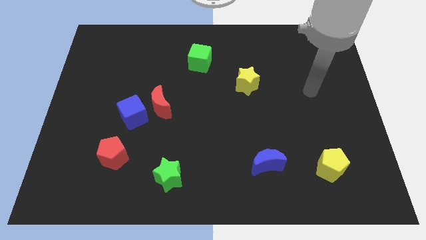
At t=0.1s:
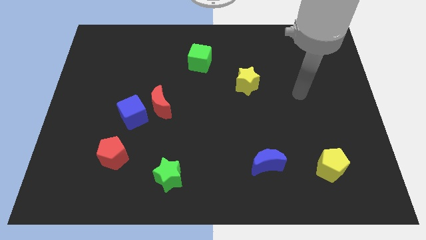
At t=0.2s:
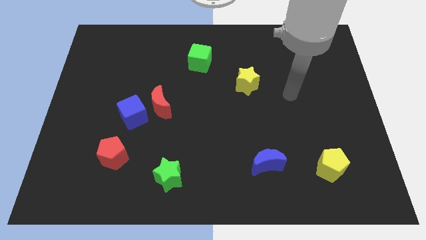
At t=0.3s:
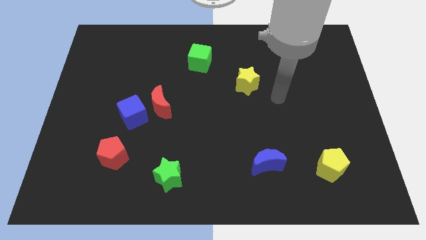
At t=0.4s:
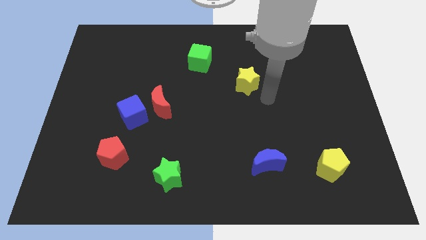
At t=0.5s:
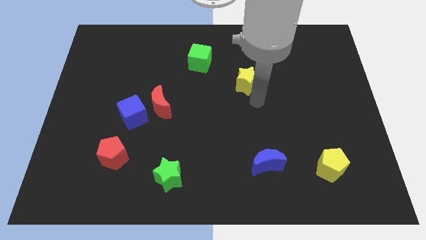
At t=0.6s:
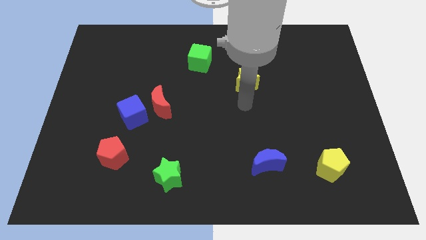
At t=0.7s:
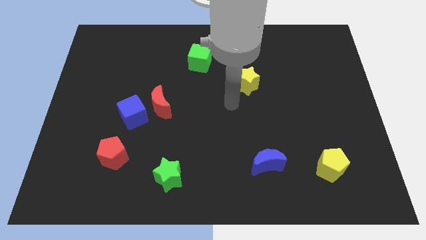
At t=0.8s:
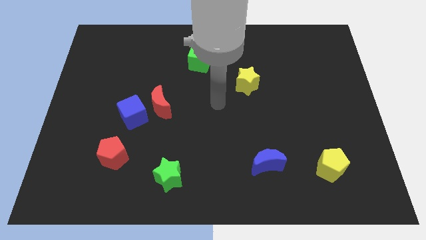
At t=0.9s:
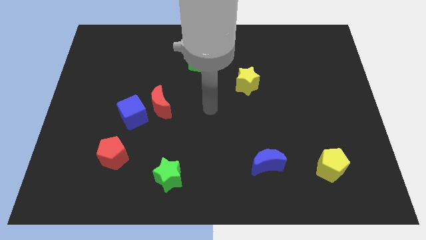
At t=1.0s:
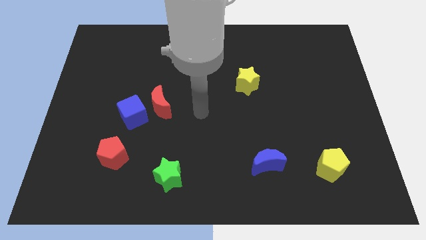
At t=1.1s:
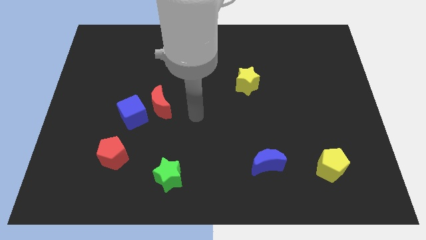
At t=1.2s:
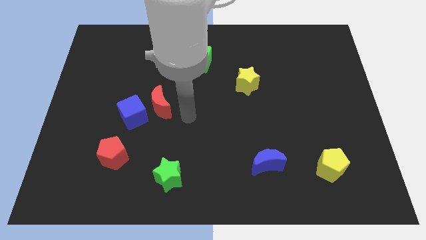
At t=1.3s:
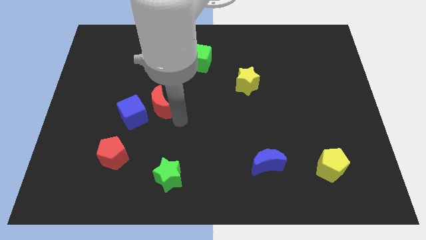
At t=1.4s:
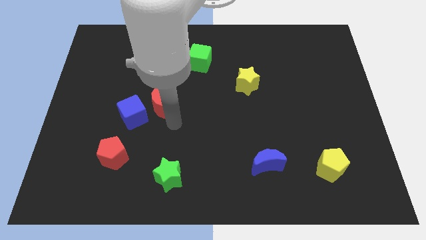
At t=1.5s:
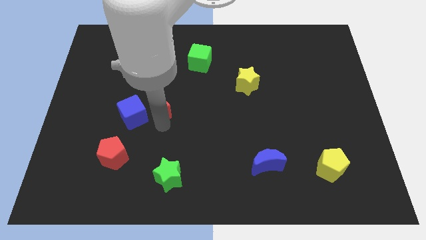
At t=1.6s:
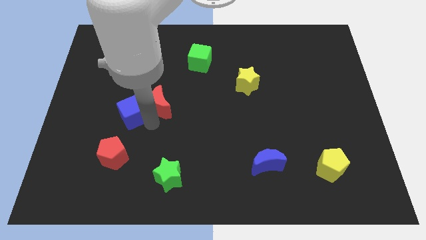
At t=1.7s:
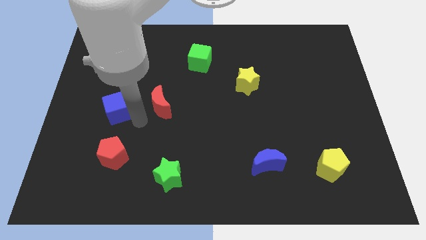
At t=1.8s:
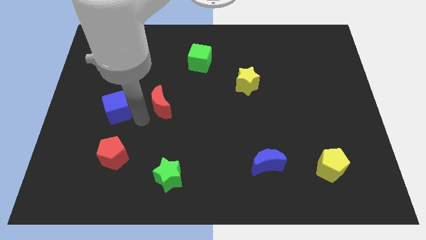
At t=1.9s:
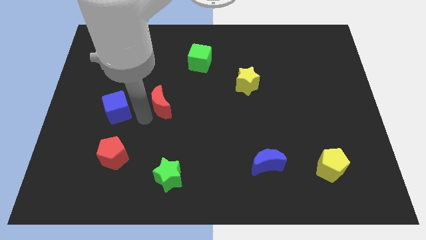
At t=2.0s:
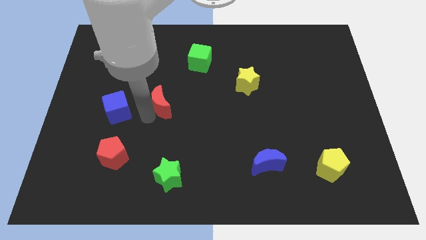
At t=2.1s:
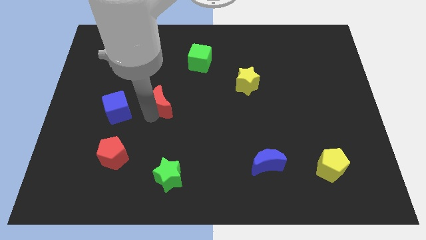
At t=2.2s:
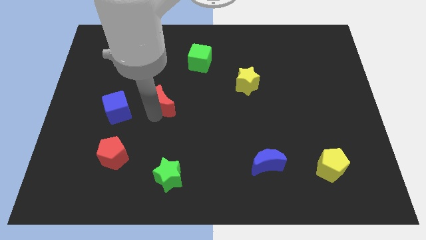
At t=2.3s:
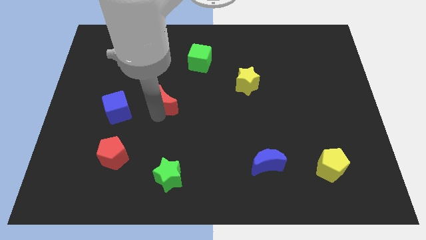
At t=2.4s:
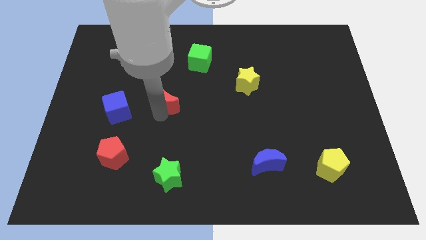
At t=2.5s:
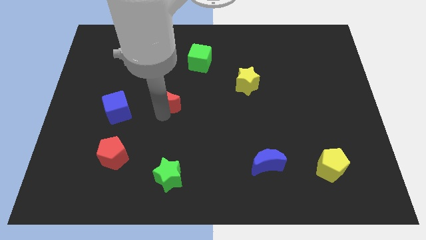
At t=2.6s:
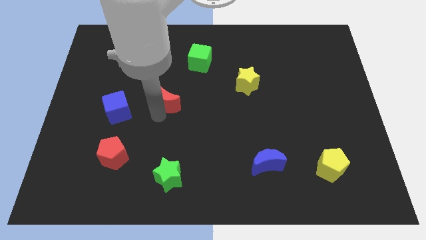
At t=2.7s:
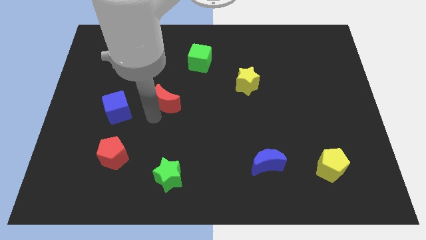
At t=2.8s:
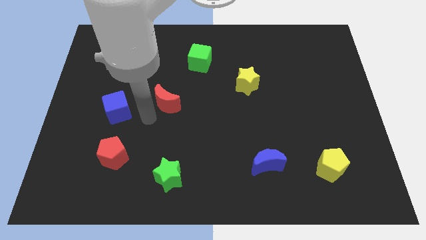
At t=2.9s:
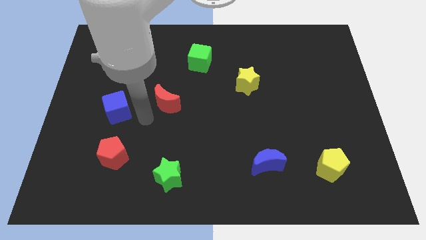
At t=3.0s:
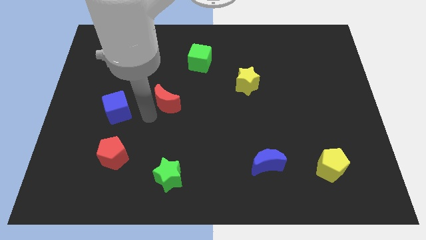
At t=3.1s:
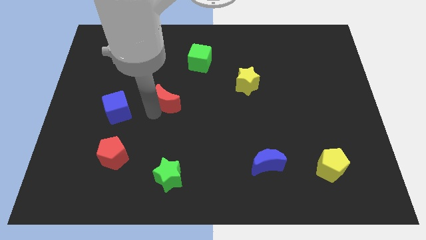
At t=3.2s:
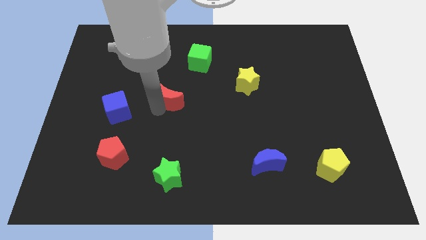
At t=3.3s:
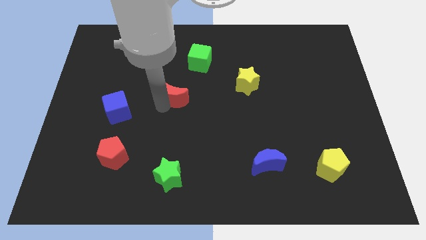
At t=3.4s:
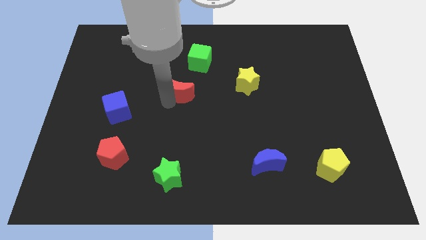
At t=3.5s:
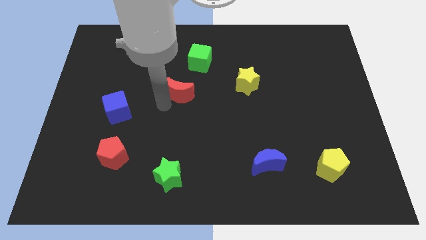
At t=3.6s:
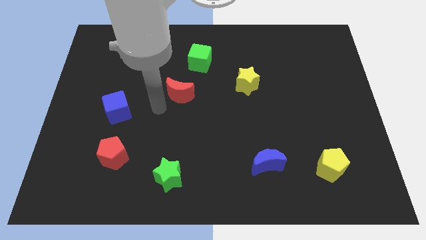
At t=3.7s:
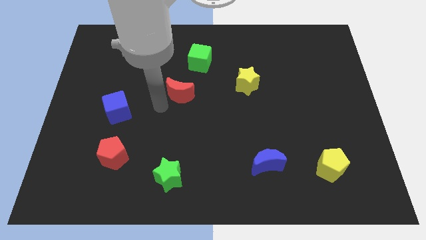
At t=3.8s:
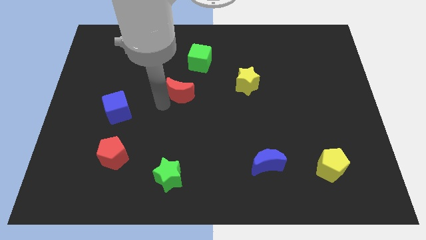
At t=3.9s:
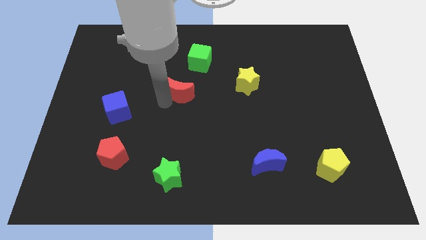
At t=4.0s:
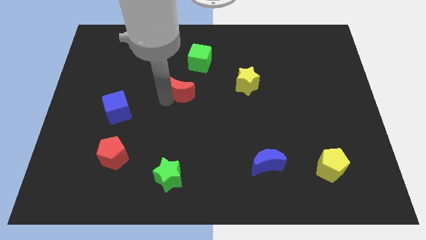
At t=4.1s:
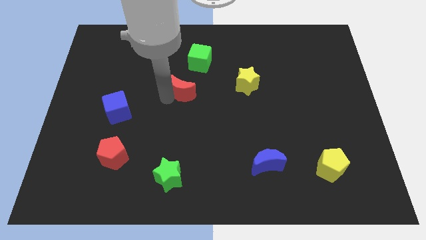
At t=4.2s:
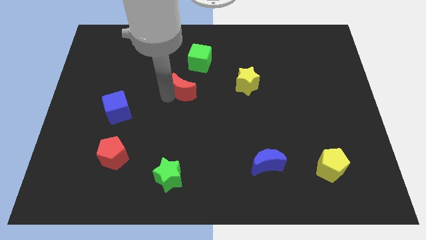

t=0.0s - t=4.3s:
slide the red moon up and then right a bit

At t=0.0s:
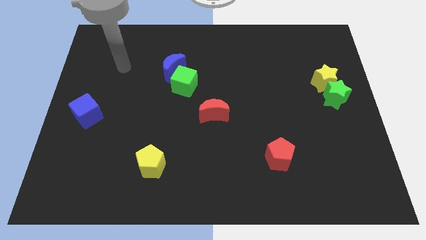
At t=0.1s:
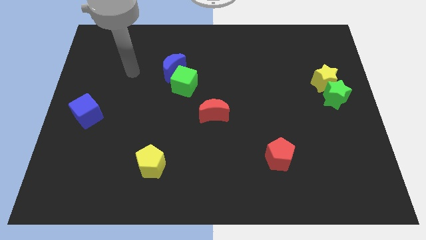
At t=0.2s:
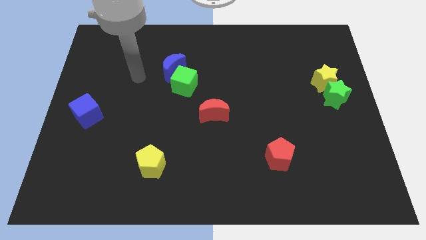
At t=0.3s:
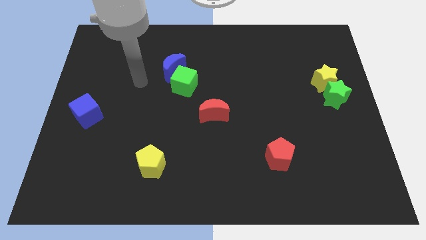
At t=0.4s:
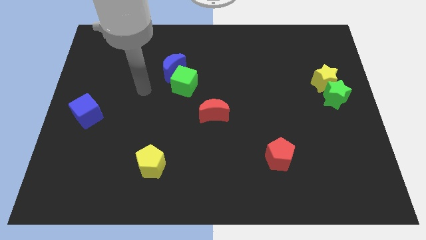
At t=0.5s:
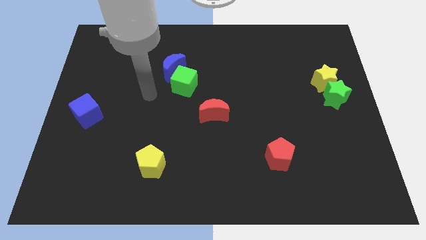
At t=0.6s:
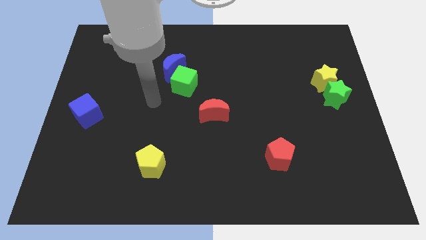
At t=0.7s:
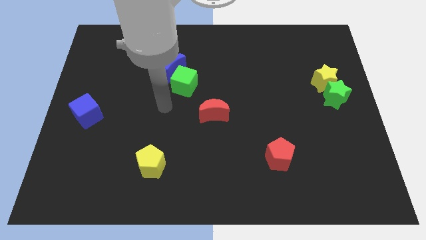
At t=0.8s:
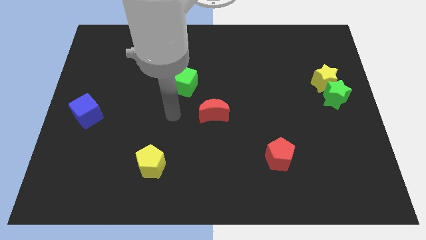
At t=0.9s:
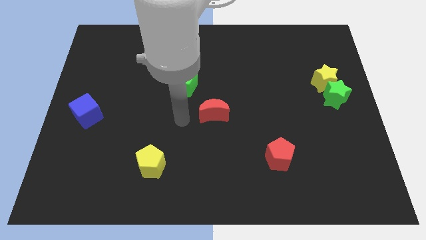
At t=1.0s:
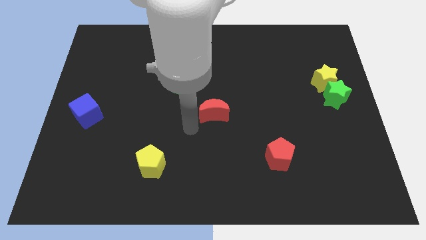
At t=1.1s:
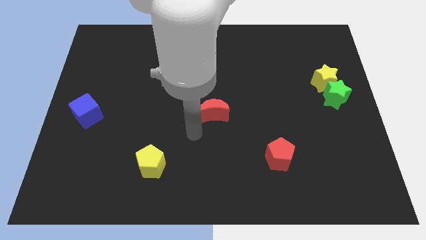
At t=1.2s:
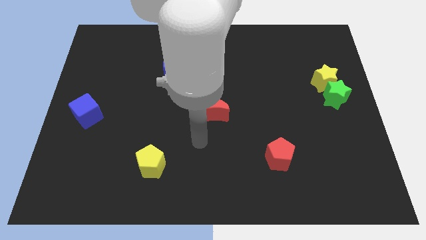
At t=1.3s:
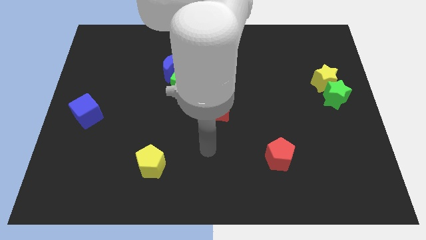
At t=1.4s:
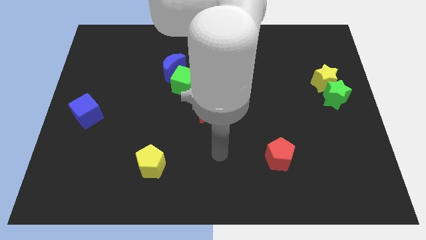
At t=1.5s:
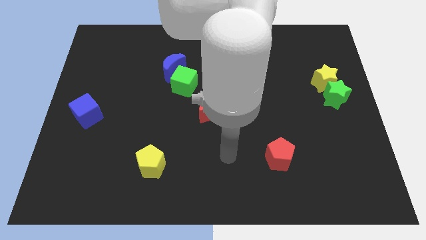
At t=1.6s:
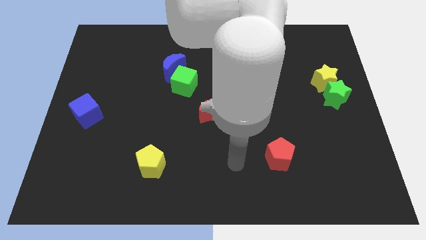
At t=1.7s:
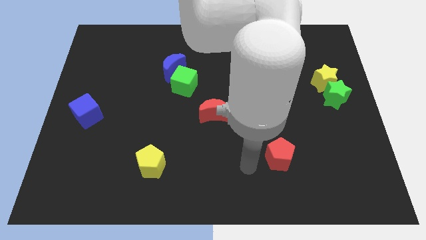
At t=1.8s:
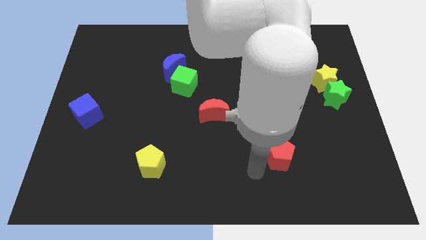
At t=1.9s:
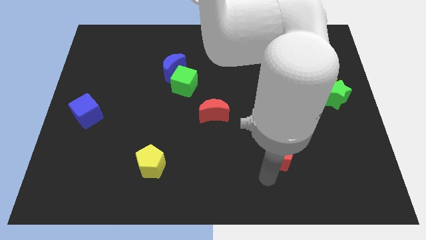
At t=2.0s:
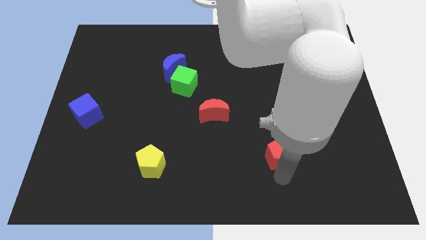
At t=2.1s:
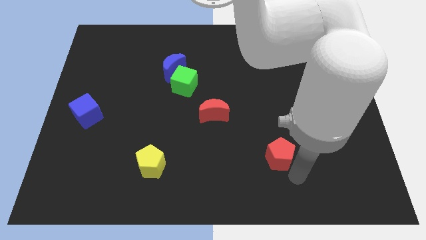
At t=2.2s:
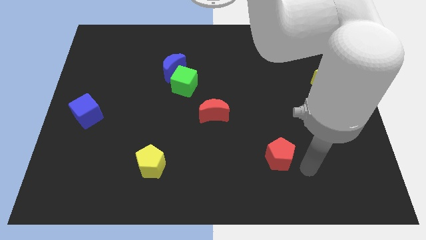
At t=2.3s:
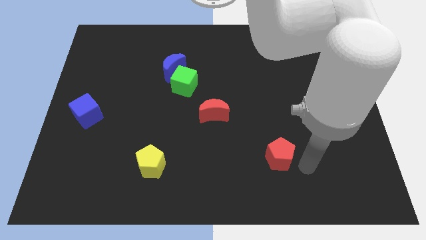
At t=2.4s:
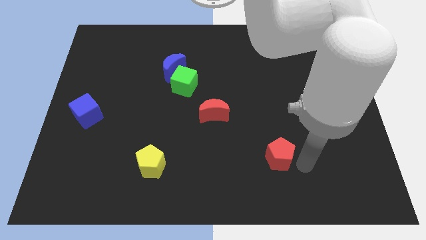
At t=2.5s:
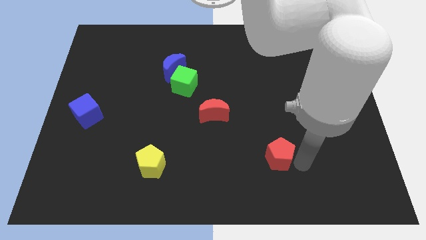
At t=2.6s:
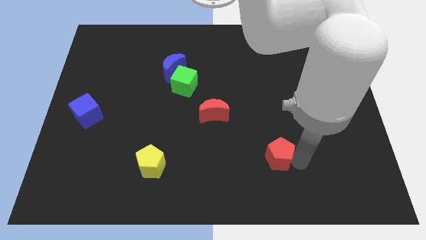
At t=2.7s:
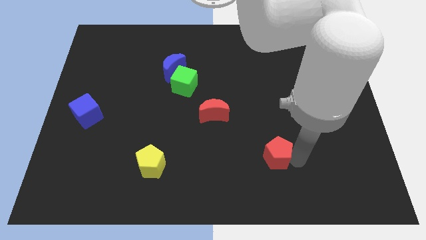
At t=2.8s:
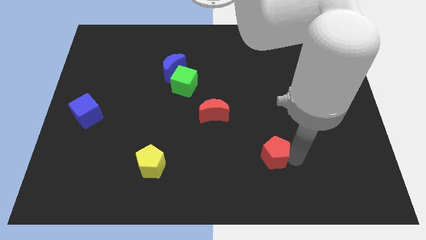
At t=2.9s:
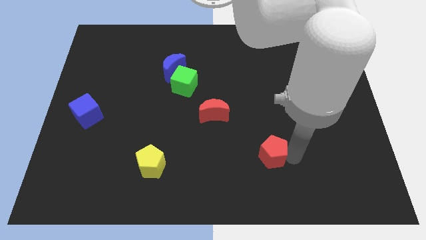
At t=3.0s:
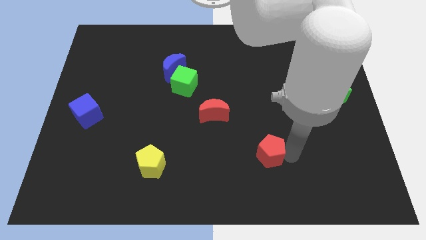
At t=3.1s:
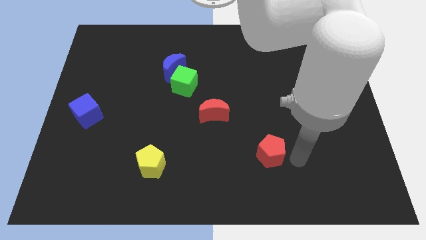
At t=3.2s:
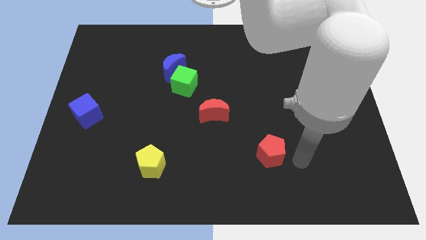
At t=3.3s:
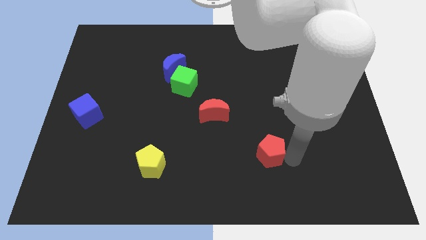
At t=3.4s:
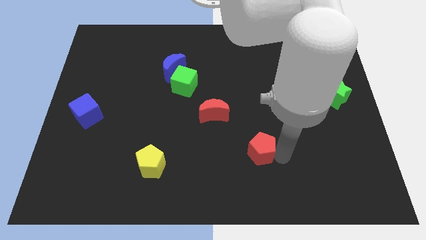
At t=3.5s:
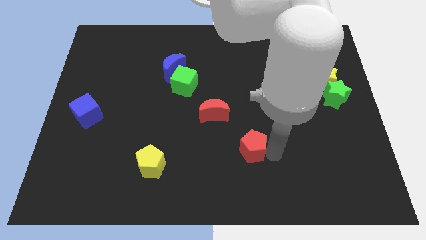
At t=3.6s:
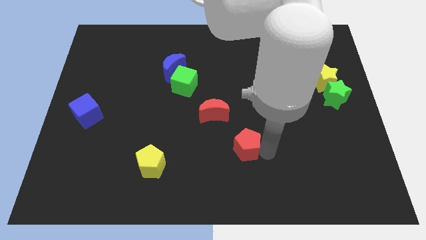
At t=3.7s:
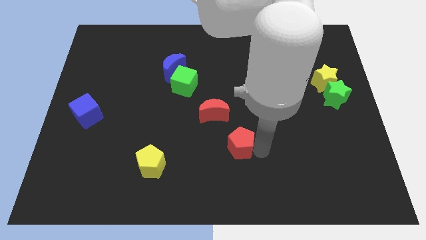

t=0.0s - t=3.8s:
push the red pentagon left somewhat
